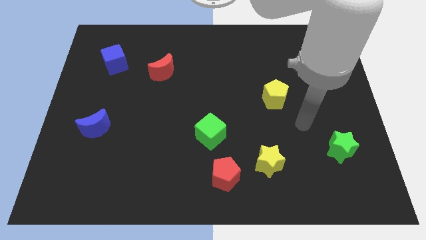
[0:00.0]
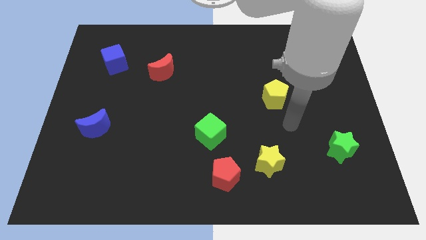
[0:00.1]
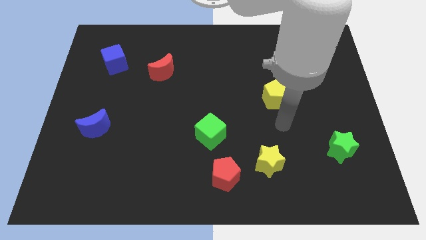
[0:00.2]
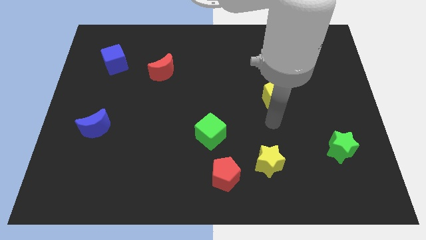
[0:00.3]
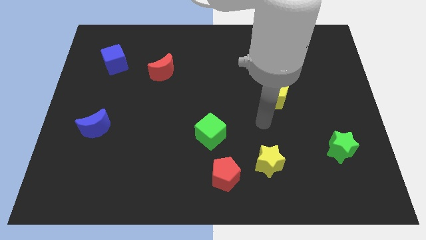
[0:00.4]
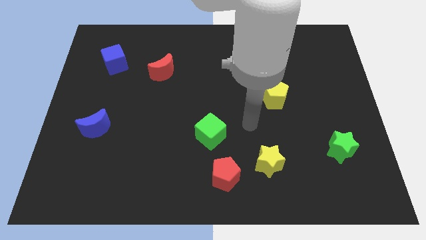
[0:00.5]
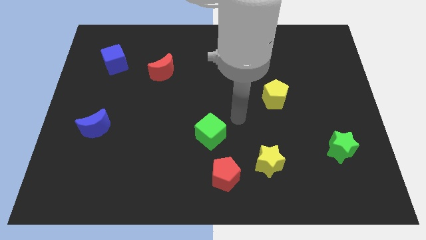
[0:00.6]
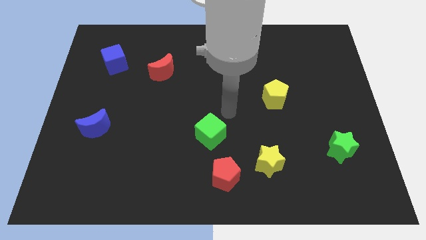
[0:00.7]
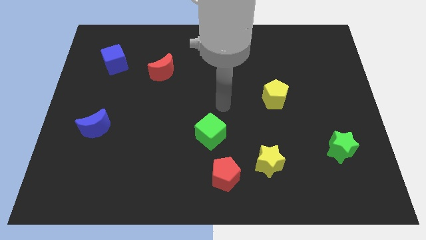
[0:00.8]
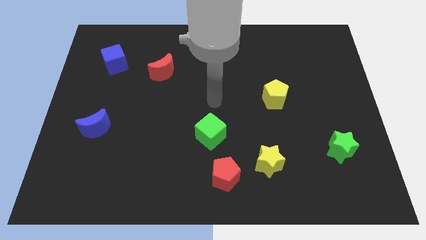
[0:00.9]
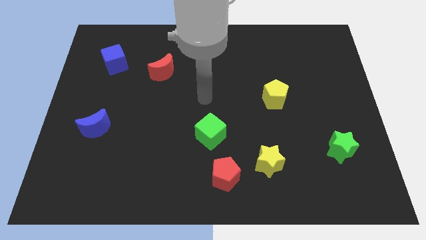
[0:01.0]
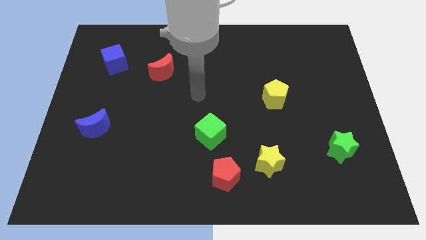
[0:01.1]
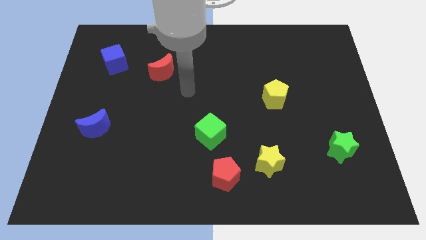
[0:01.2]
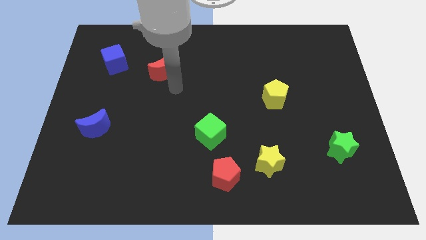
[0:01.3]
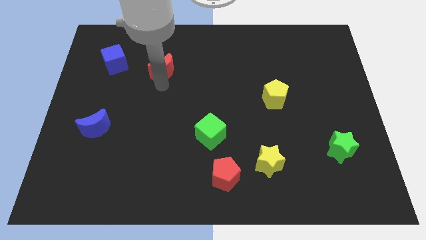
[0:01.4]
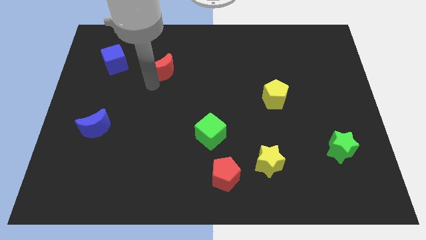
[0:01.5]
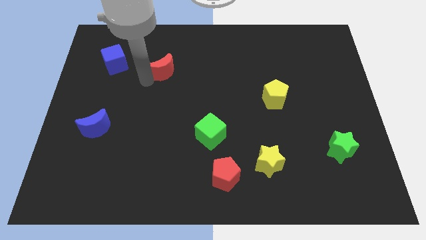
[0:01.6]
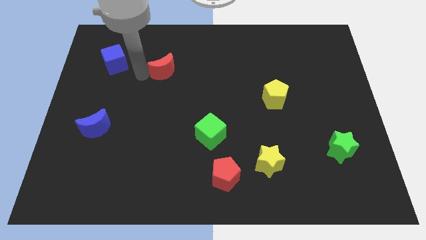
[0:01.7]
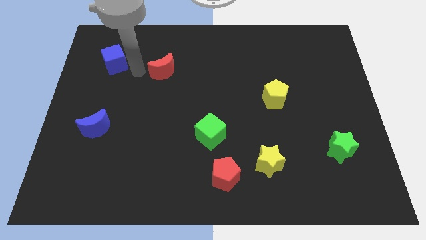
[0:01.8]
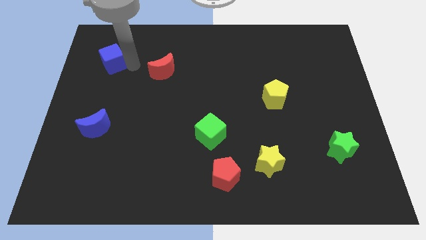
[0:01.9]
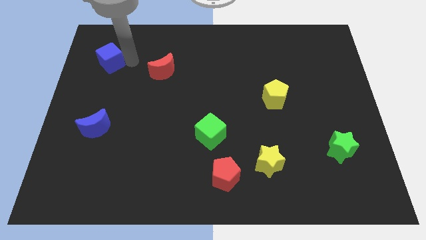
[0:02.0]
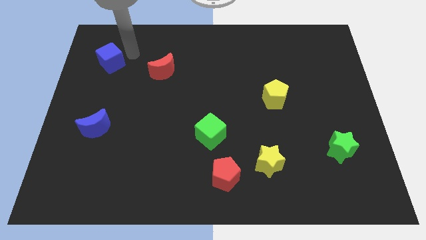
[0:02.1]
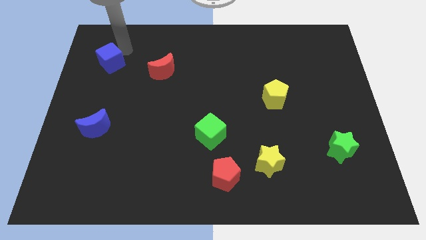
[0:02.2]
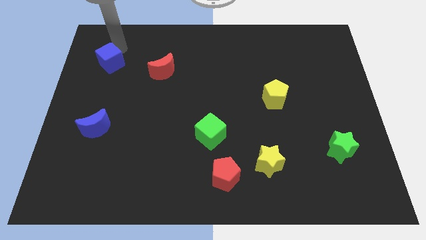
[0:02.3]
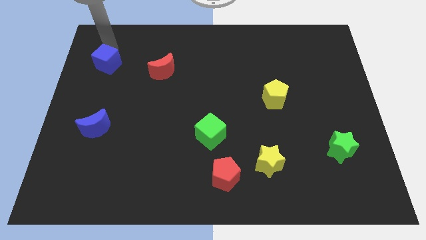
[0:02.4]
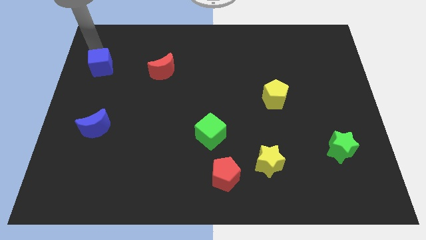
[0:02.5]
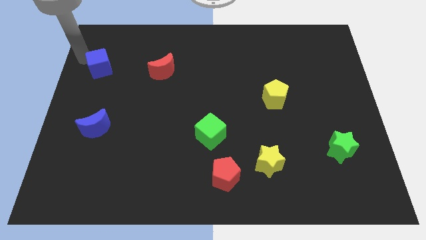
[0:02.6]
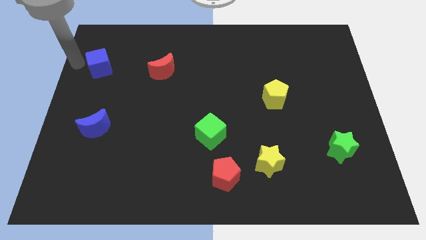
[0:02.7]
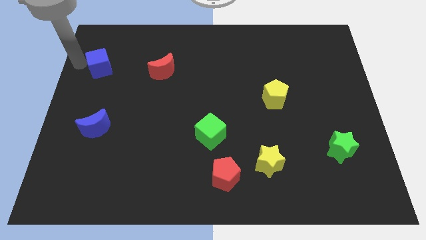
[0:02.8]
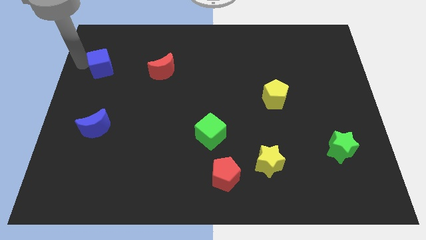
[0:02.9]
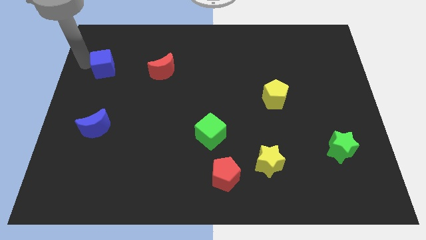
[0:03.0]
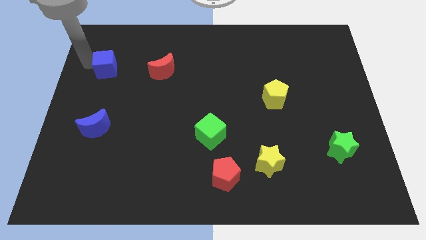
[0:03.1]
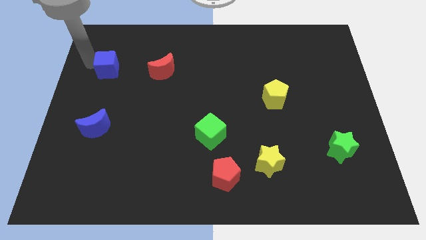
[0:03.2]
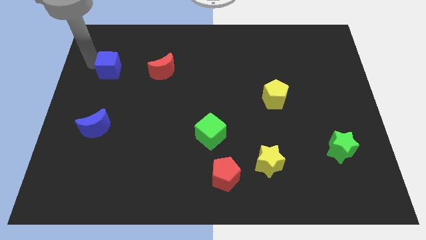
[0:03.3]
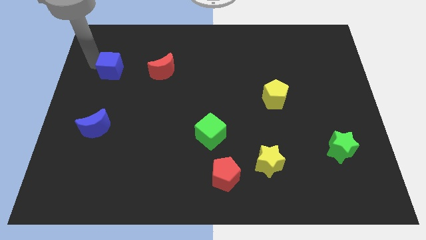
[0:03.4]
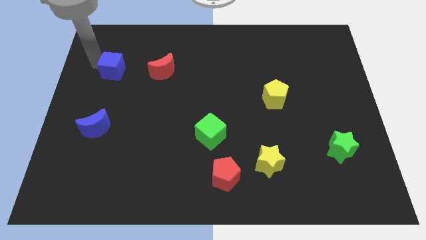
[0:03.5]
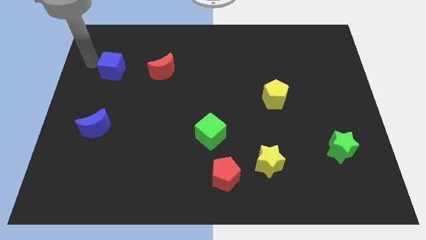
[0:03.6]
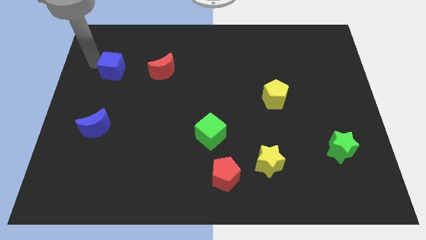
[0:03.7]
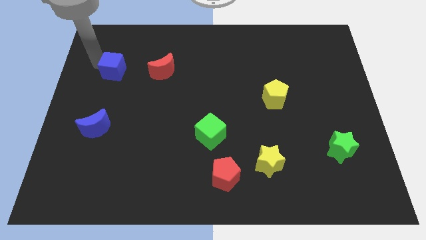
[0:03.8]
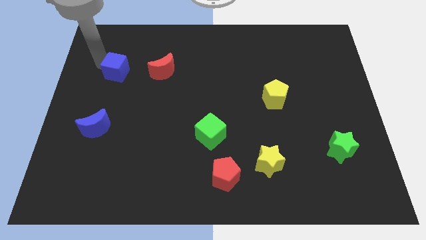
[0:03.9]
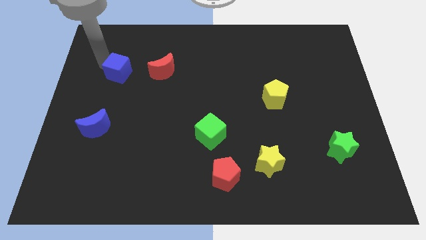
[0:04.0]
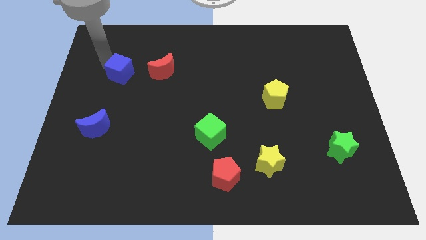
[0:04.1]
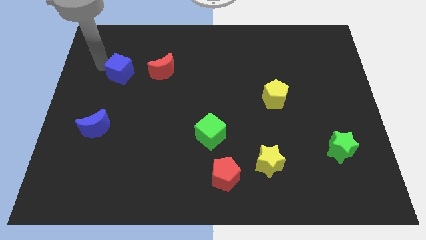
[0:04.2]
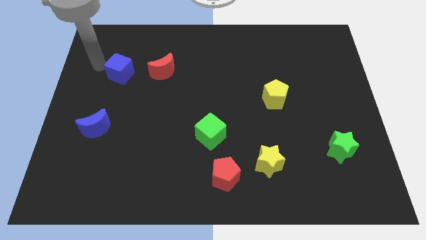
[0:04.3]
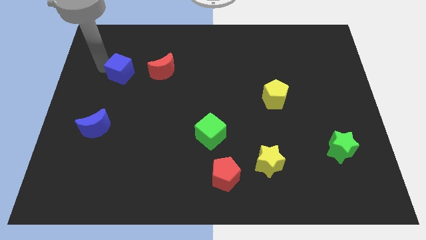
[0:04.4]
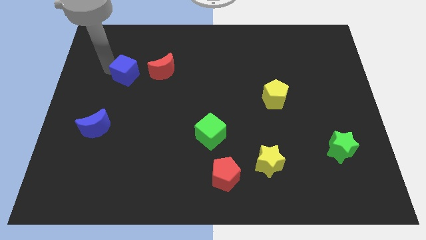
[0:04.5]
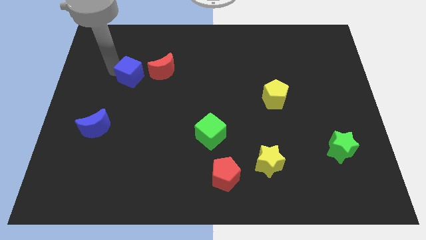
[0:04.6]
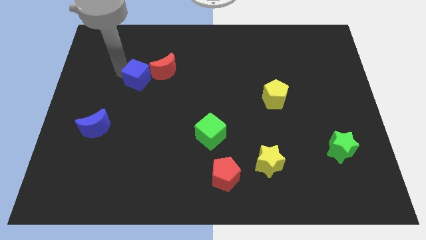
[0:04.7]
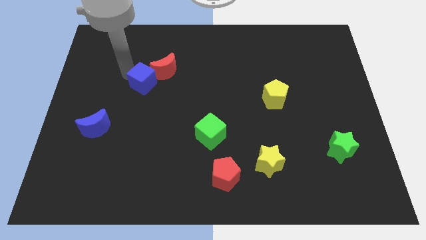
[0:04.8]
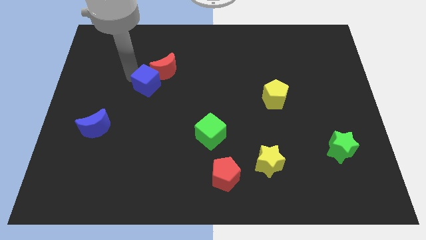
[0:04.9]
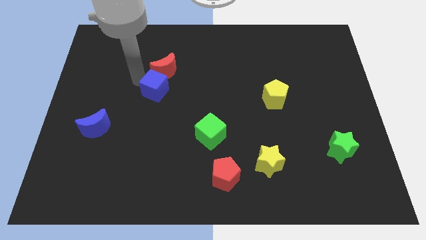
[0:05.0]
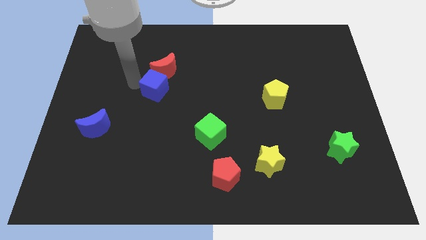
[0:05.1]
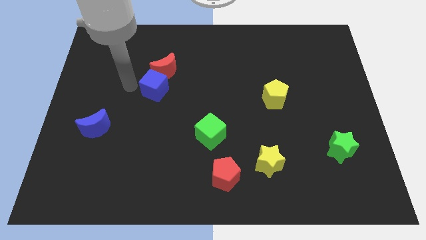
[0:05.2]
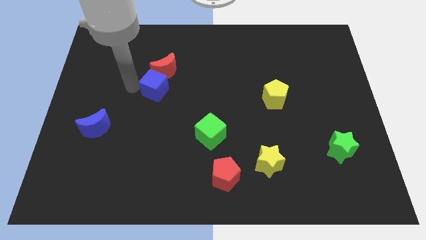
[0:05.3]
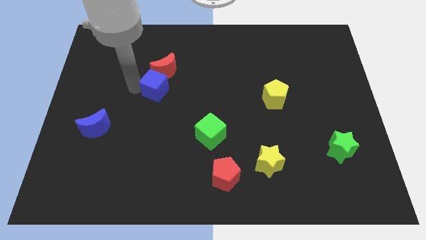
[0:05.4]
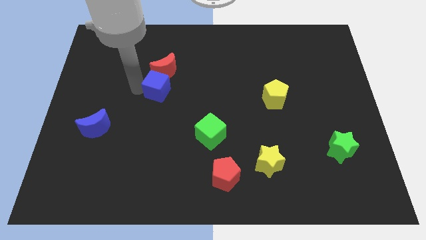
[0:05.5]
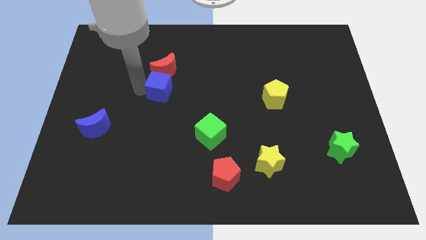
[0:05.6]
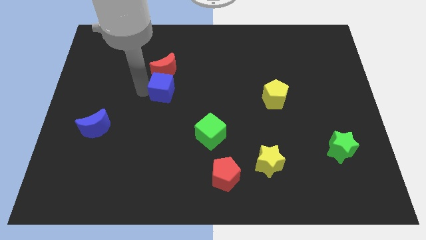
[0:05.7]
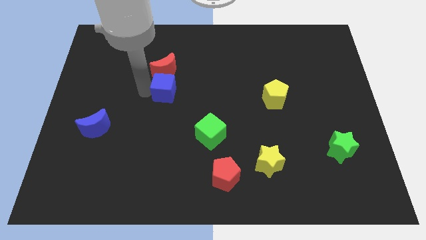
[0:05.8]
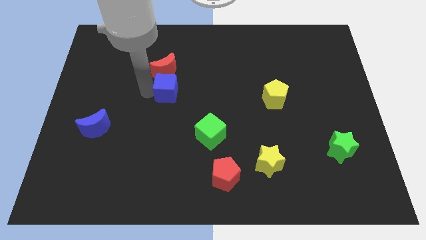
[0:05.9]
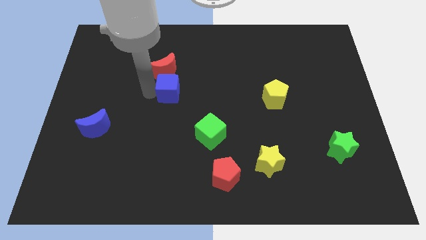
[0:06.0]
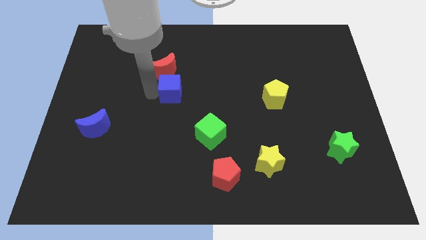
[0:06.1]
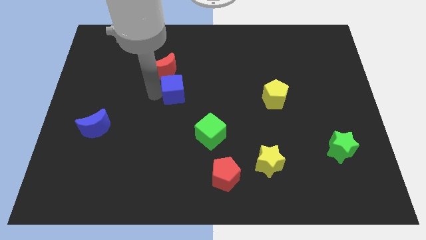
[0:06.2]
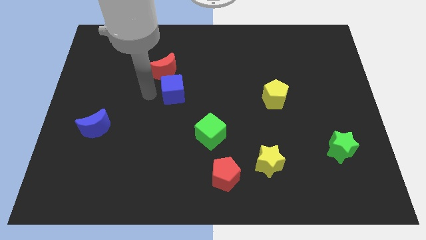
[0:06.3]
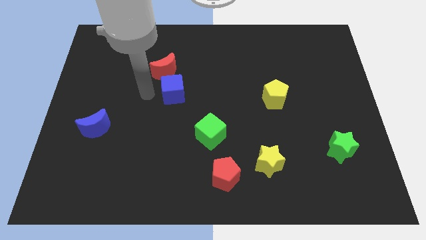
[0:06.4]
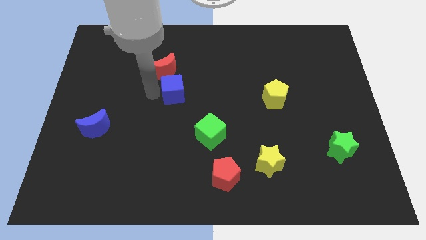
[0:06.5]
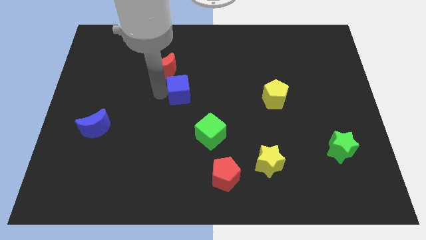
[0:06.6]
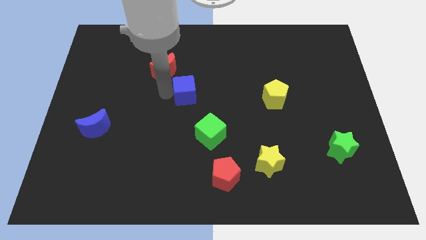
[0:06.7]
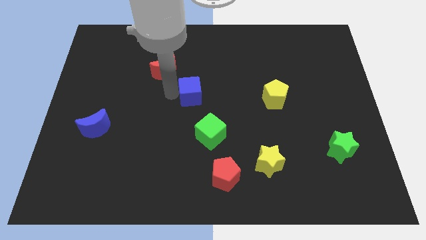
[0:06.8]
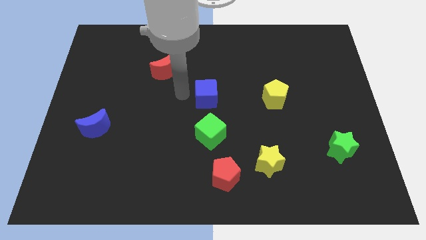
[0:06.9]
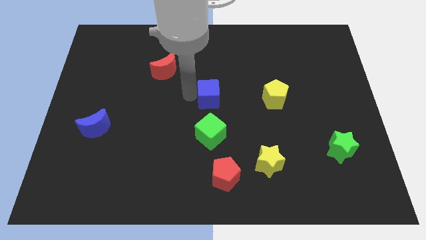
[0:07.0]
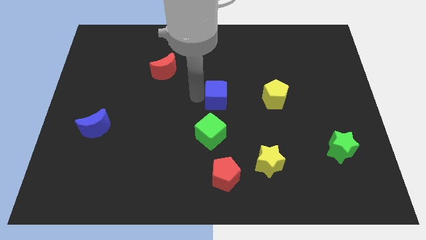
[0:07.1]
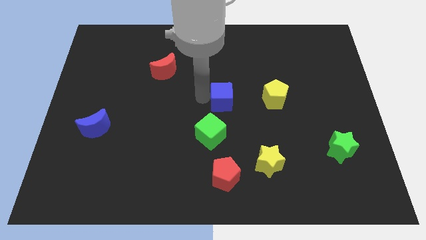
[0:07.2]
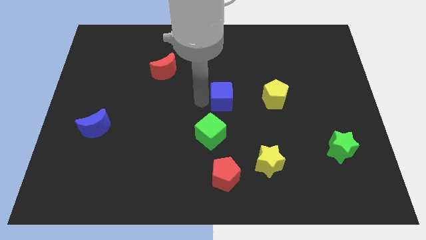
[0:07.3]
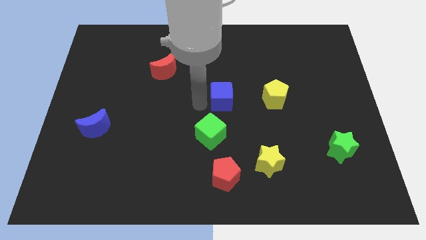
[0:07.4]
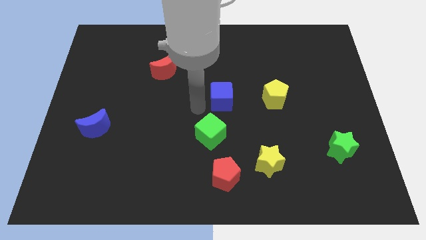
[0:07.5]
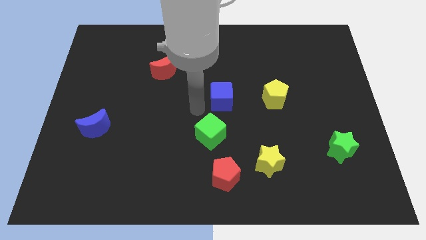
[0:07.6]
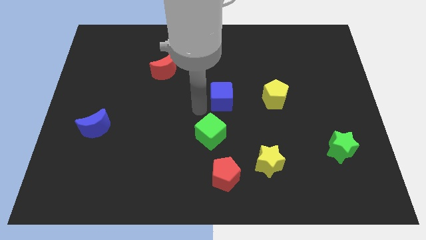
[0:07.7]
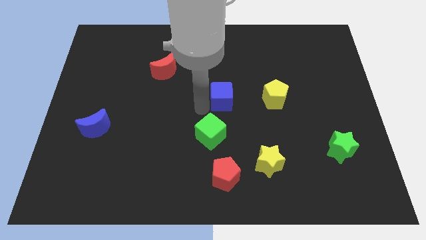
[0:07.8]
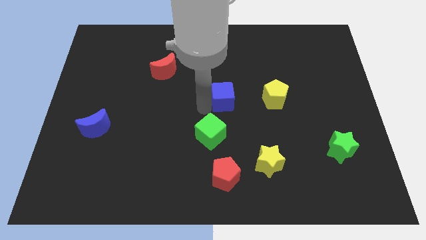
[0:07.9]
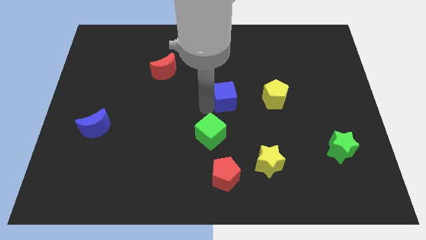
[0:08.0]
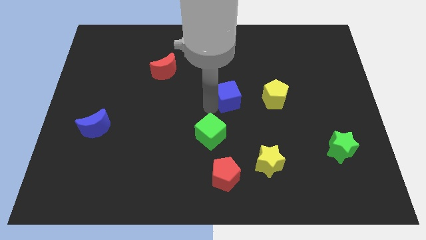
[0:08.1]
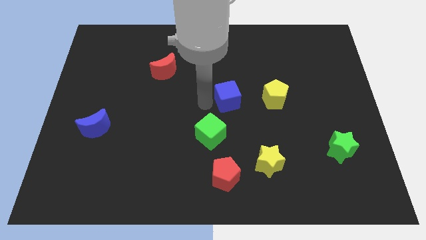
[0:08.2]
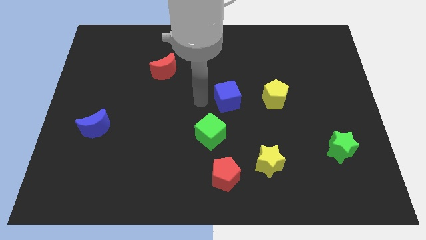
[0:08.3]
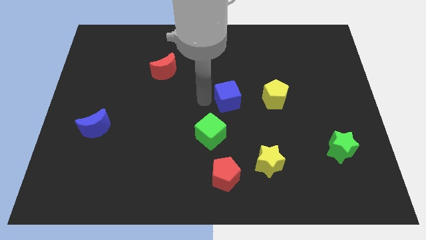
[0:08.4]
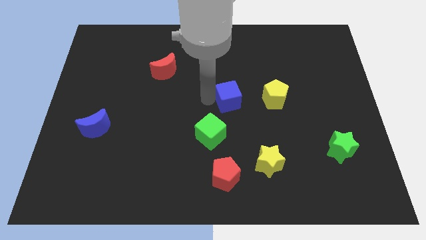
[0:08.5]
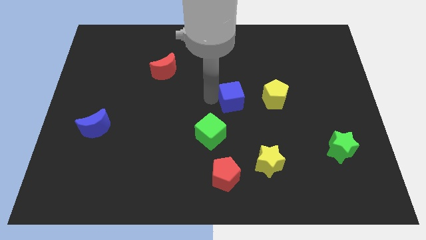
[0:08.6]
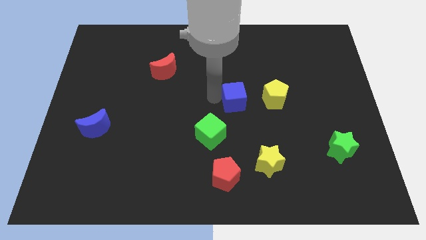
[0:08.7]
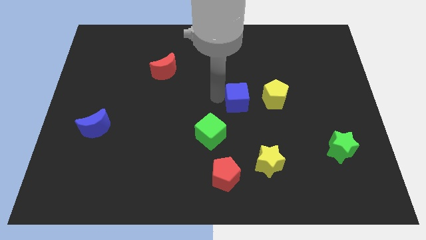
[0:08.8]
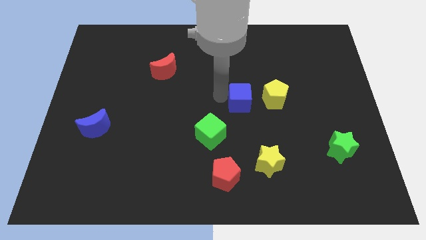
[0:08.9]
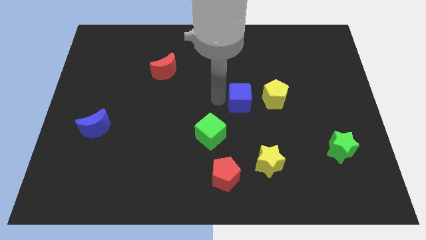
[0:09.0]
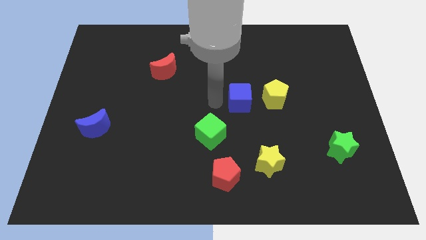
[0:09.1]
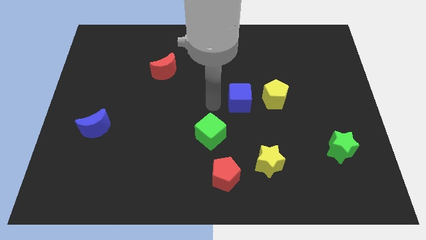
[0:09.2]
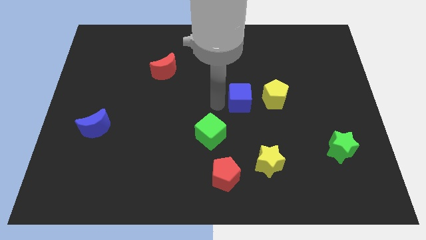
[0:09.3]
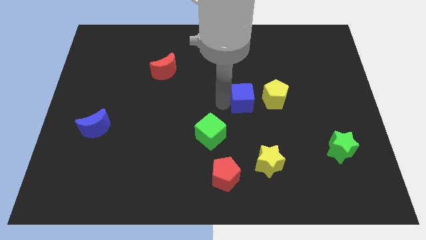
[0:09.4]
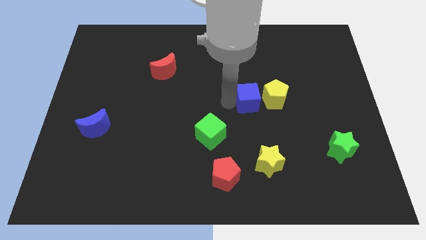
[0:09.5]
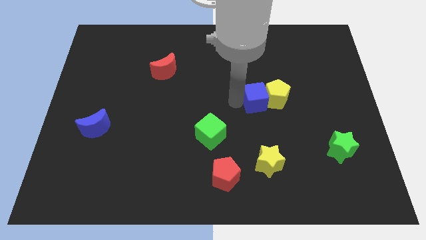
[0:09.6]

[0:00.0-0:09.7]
slide the blue cube next to the yellow pentagon
